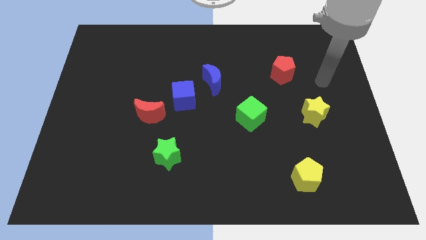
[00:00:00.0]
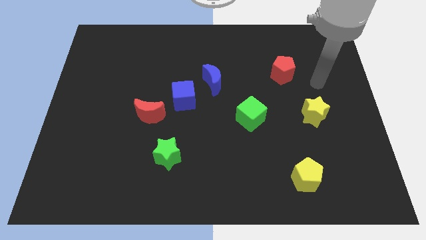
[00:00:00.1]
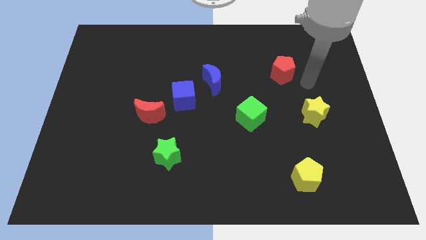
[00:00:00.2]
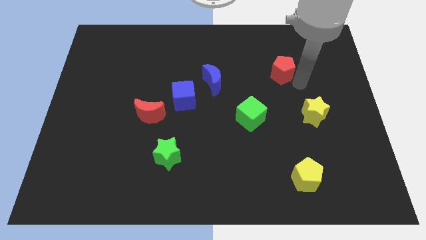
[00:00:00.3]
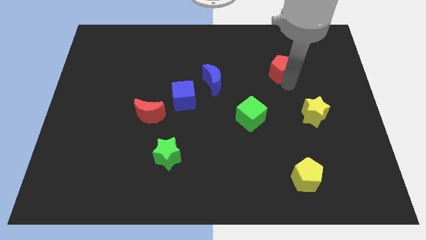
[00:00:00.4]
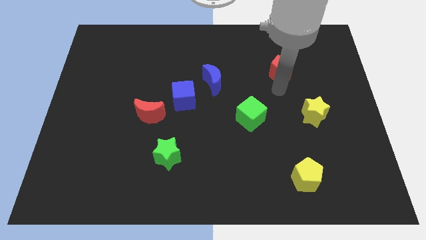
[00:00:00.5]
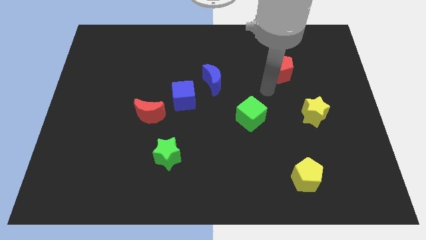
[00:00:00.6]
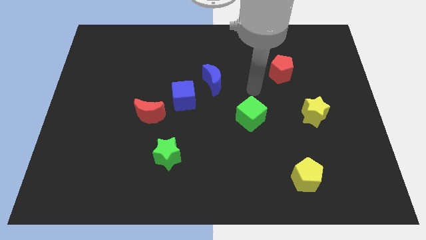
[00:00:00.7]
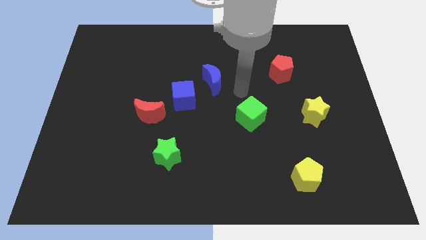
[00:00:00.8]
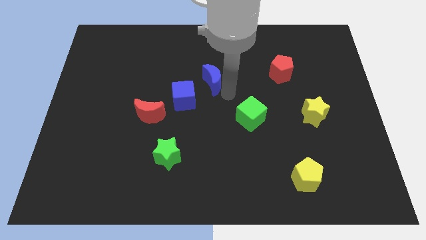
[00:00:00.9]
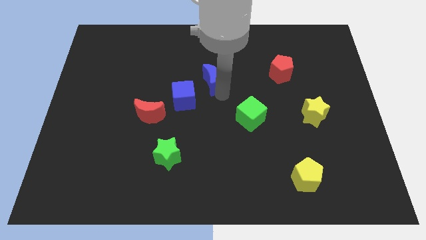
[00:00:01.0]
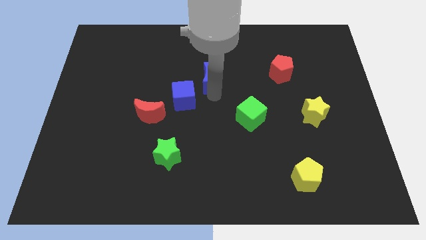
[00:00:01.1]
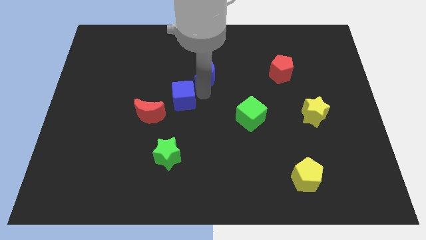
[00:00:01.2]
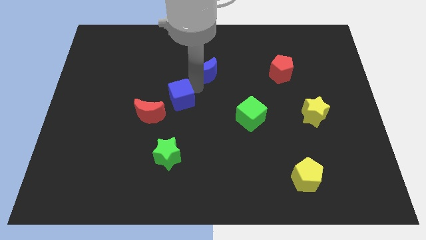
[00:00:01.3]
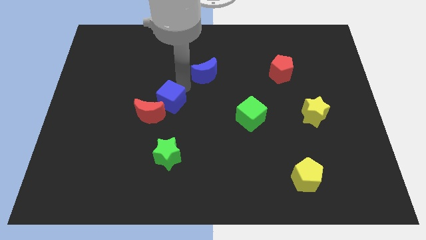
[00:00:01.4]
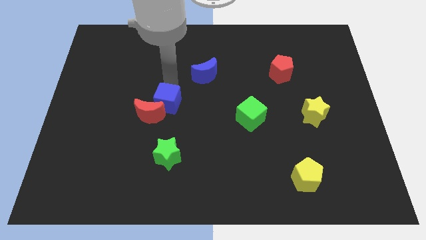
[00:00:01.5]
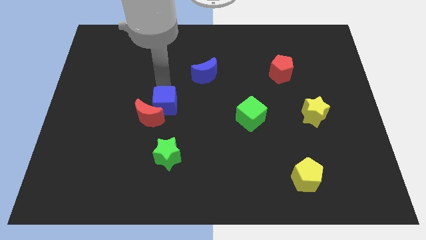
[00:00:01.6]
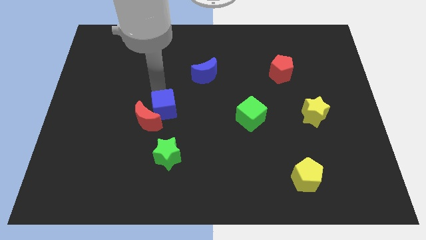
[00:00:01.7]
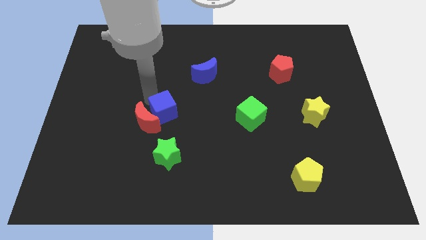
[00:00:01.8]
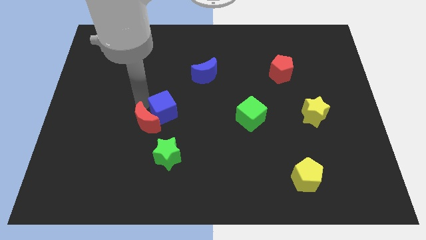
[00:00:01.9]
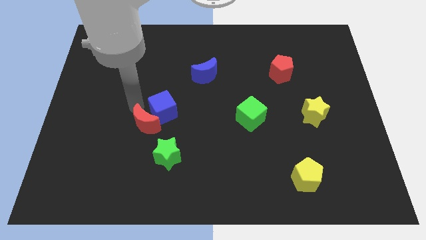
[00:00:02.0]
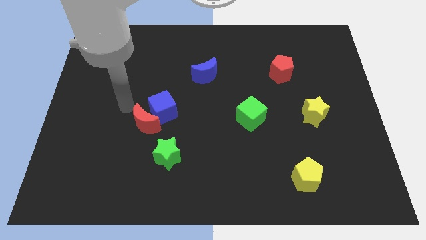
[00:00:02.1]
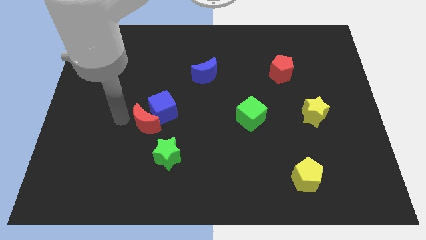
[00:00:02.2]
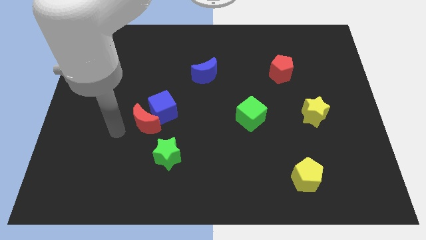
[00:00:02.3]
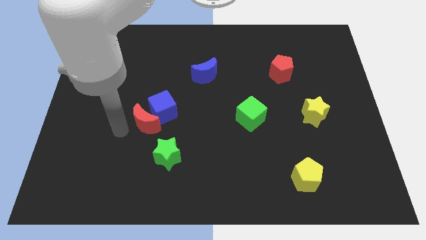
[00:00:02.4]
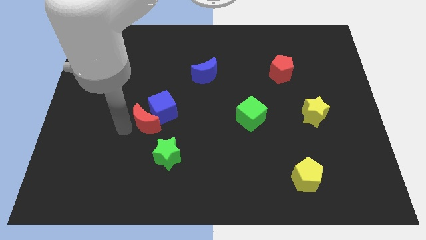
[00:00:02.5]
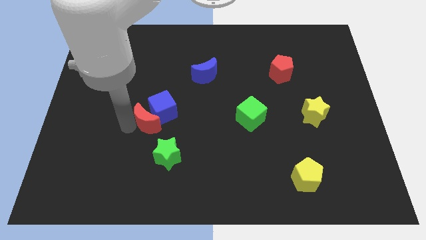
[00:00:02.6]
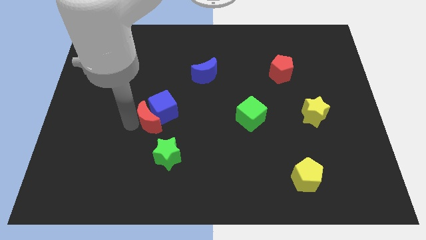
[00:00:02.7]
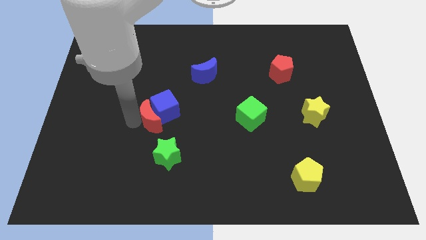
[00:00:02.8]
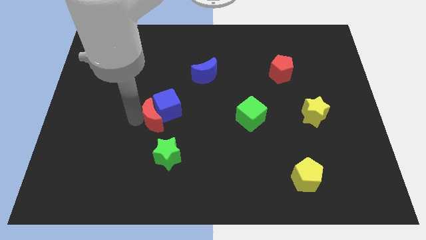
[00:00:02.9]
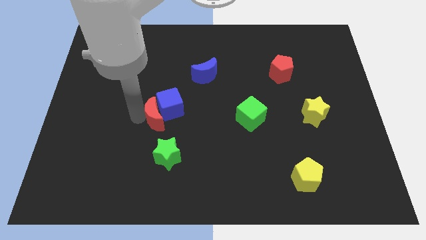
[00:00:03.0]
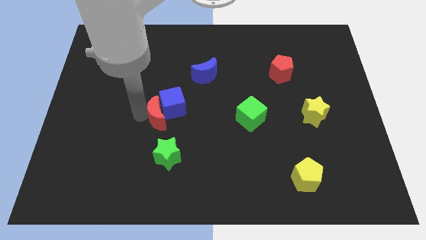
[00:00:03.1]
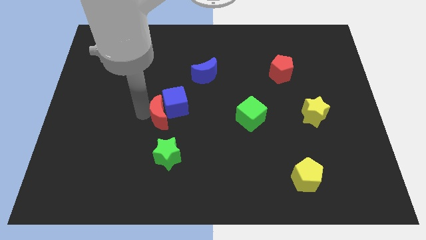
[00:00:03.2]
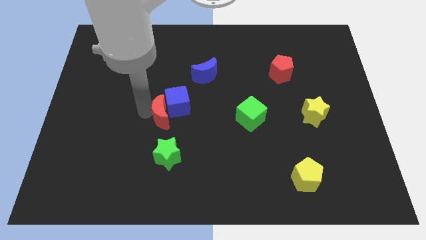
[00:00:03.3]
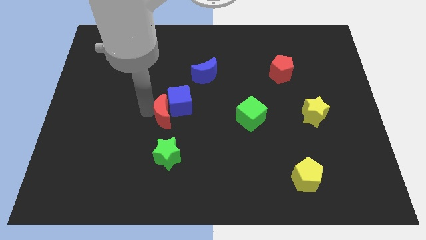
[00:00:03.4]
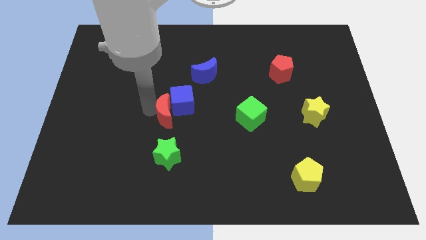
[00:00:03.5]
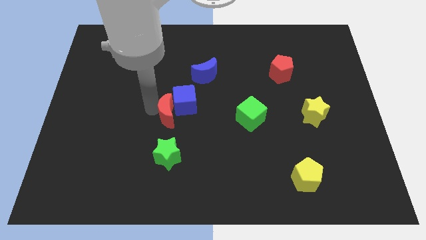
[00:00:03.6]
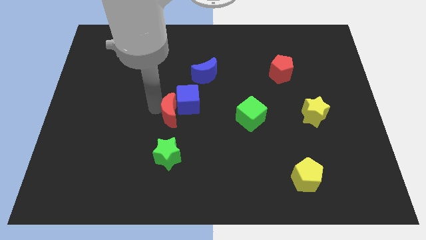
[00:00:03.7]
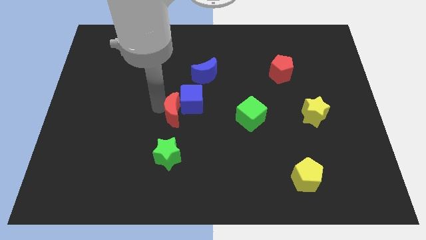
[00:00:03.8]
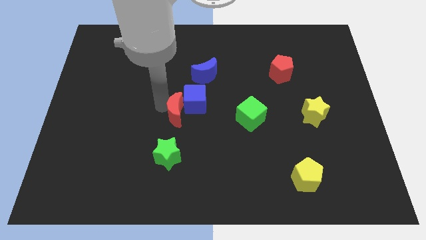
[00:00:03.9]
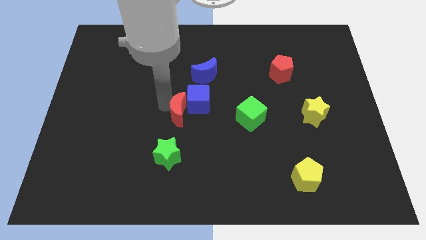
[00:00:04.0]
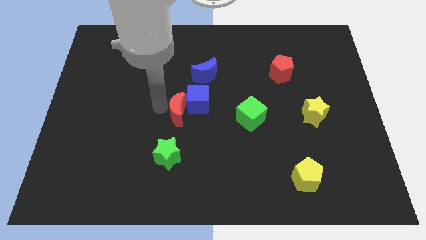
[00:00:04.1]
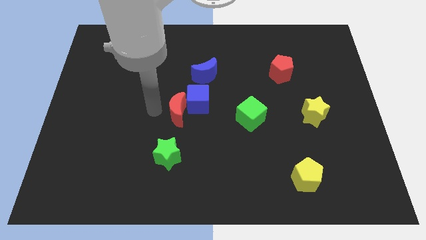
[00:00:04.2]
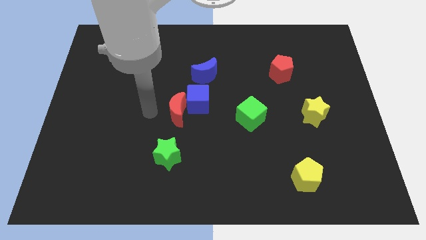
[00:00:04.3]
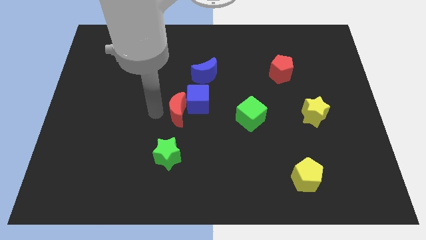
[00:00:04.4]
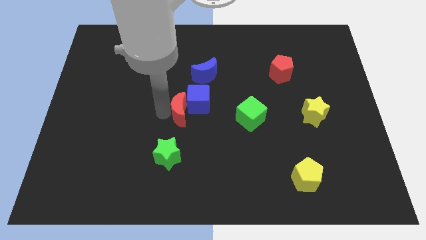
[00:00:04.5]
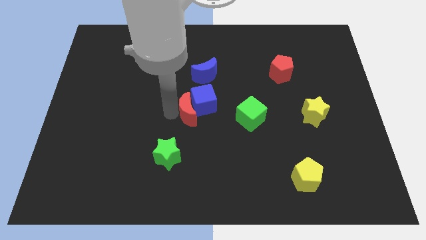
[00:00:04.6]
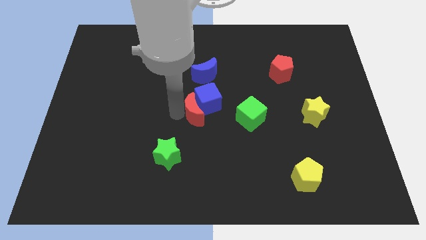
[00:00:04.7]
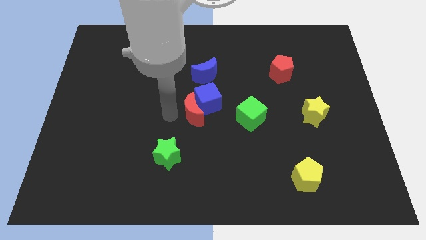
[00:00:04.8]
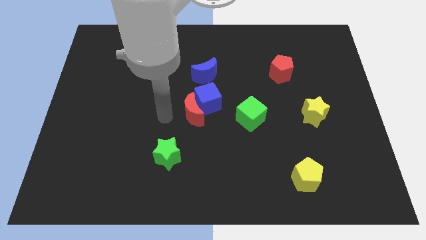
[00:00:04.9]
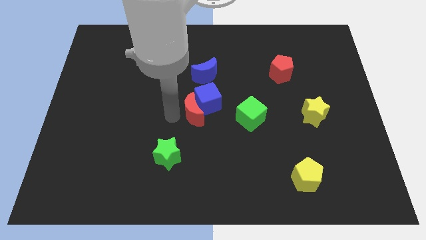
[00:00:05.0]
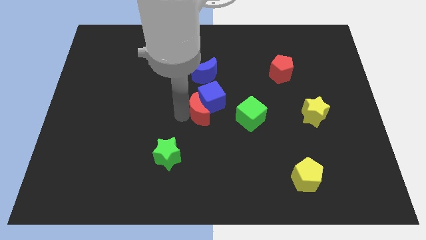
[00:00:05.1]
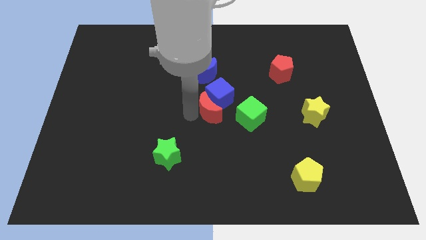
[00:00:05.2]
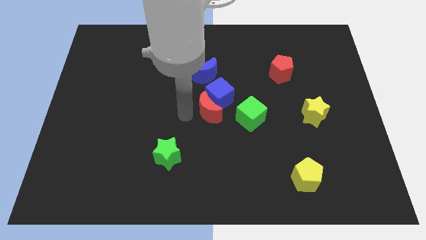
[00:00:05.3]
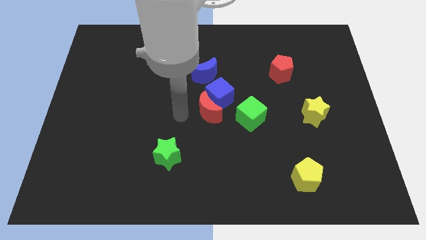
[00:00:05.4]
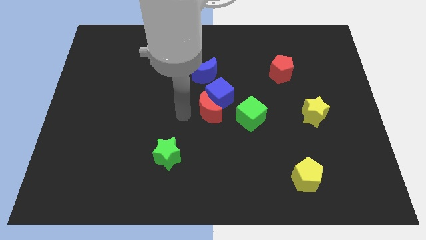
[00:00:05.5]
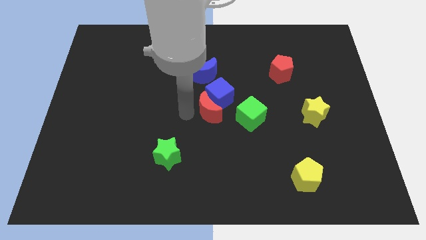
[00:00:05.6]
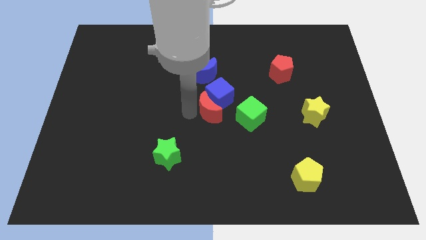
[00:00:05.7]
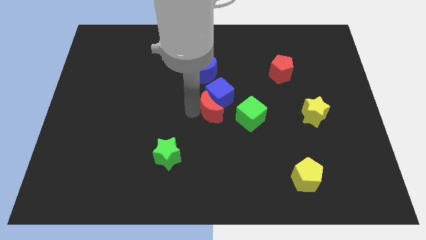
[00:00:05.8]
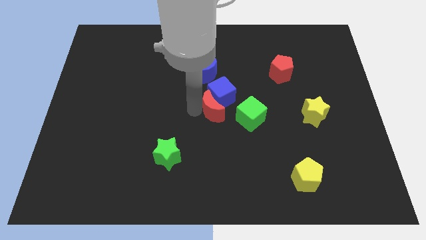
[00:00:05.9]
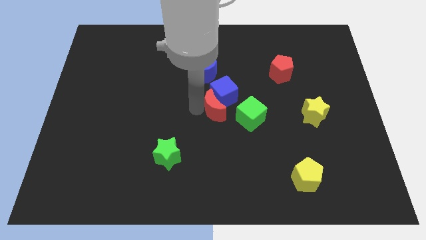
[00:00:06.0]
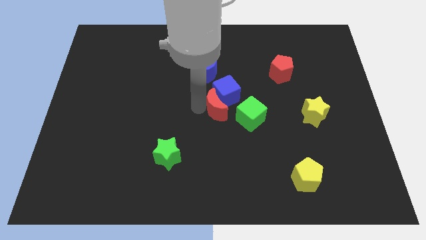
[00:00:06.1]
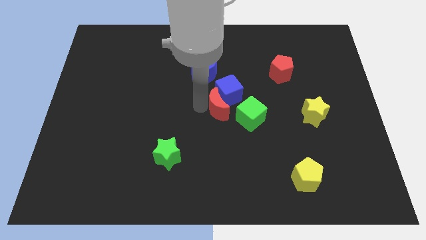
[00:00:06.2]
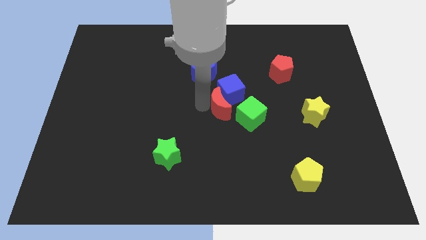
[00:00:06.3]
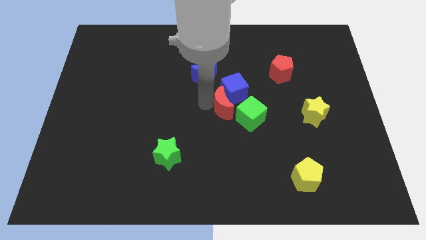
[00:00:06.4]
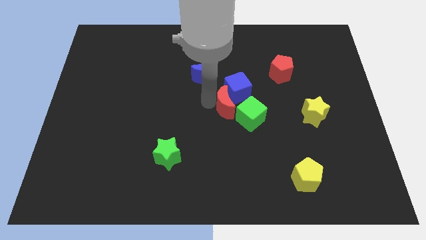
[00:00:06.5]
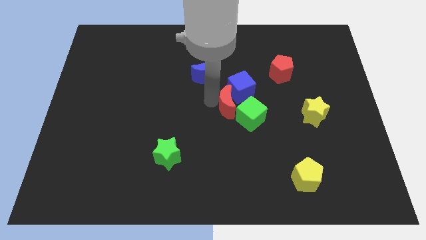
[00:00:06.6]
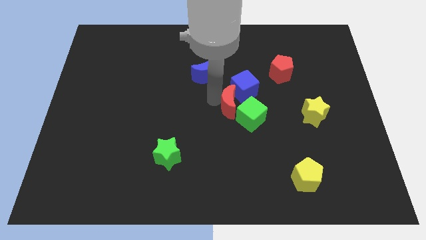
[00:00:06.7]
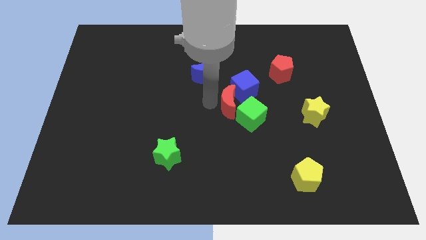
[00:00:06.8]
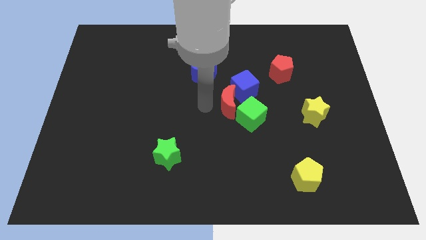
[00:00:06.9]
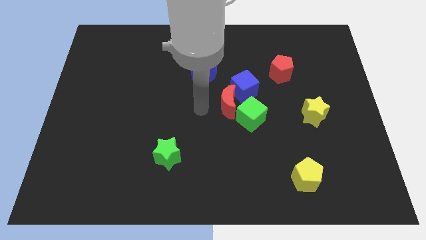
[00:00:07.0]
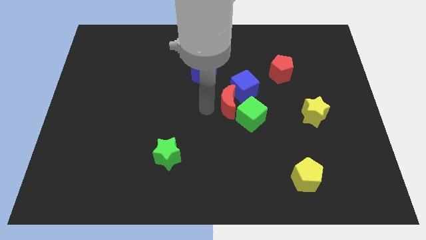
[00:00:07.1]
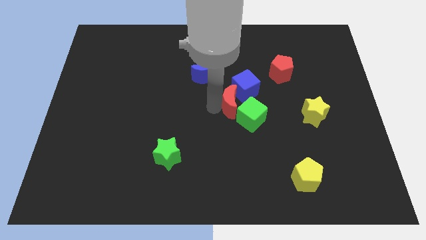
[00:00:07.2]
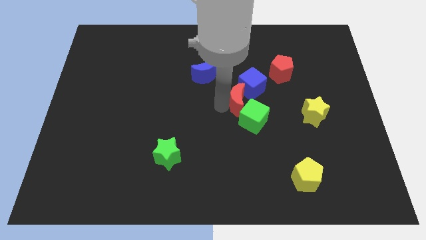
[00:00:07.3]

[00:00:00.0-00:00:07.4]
slide the red moon to the right

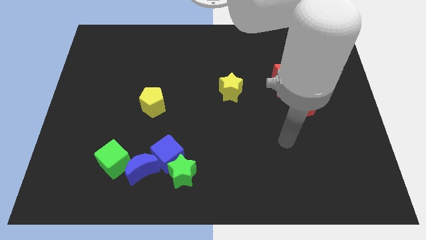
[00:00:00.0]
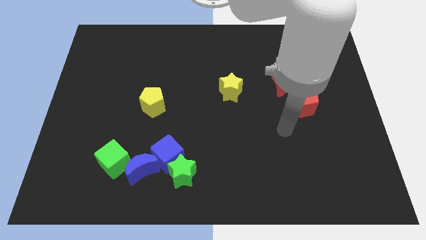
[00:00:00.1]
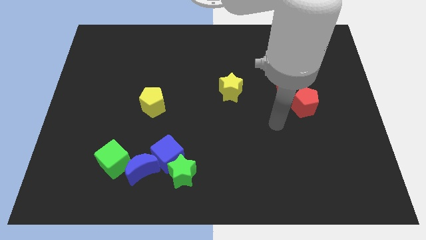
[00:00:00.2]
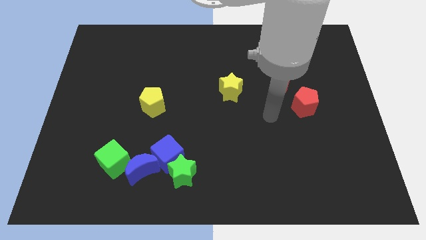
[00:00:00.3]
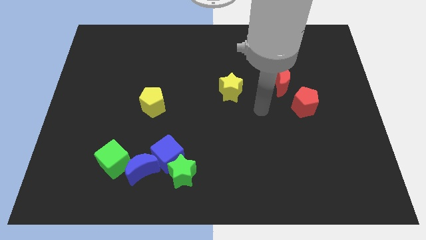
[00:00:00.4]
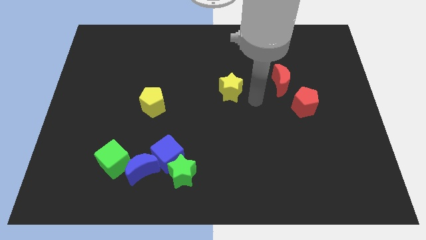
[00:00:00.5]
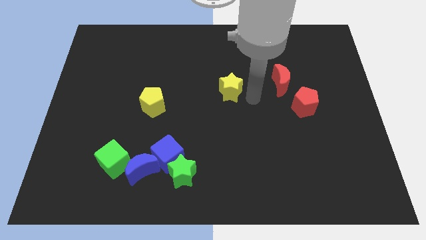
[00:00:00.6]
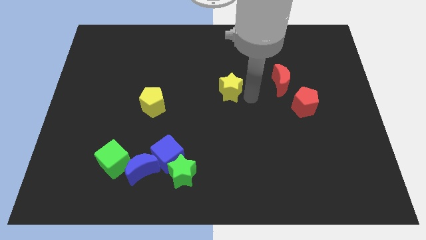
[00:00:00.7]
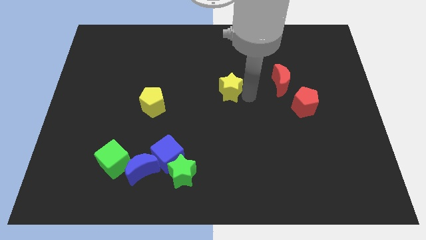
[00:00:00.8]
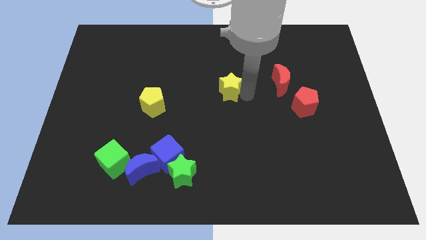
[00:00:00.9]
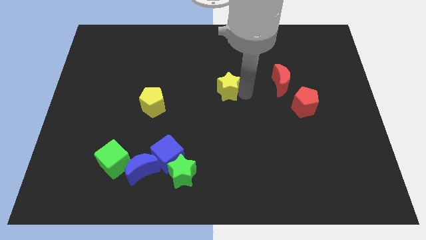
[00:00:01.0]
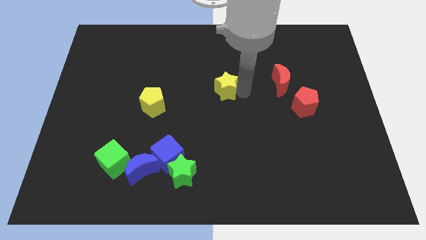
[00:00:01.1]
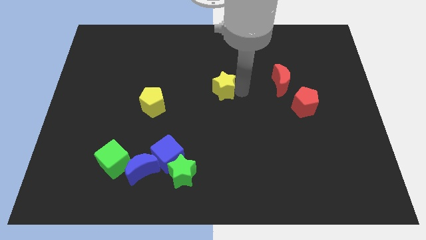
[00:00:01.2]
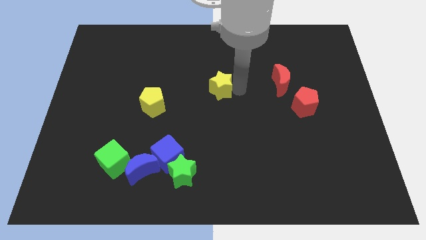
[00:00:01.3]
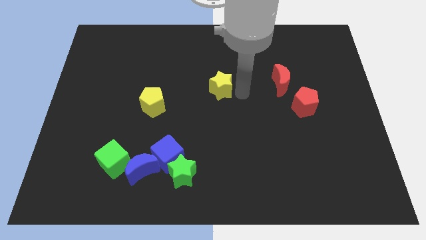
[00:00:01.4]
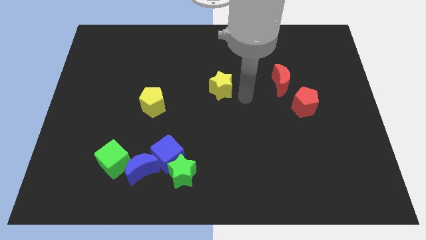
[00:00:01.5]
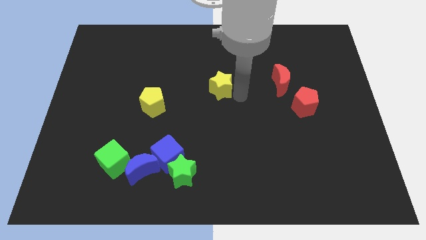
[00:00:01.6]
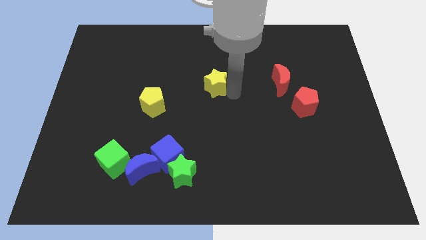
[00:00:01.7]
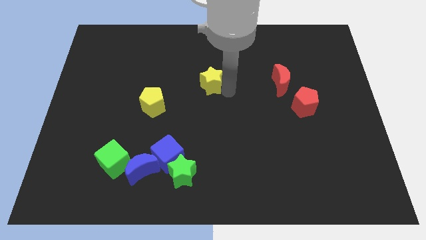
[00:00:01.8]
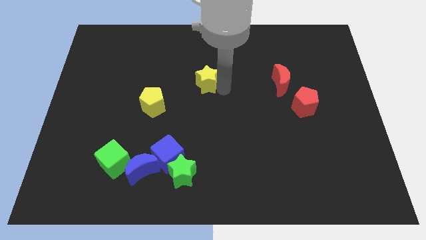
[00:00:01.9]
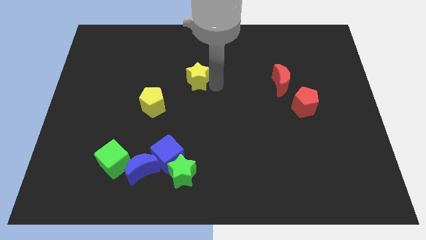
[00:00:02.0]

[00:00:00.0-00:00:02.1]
move the yellow star somewhat to the left
